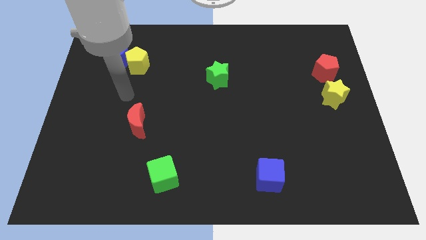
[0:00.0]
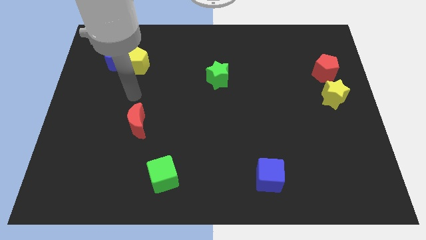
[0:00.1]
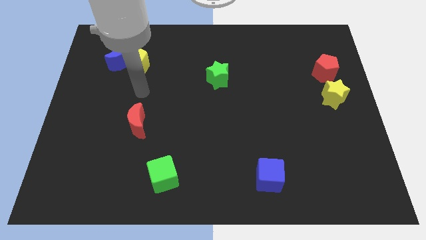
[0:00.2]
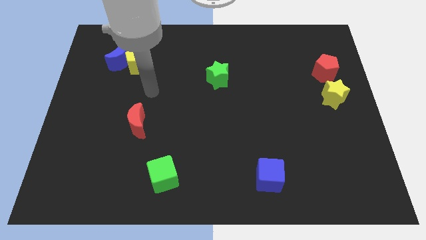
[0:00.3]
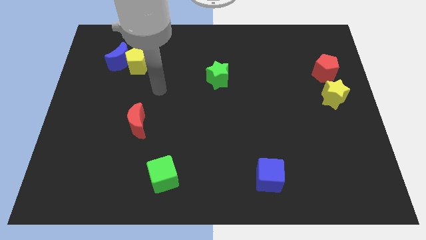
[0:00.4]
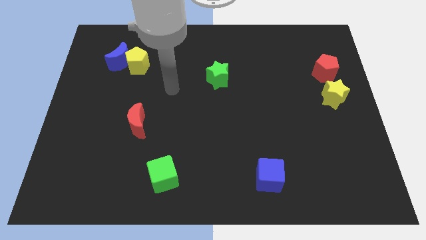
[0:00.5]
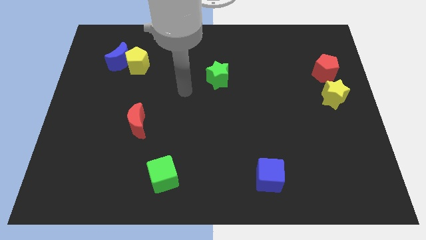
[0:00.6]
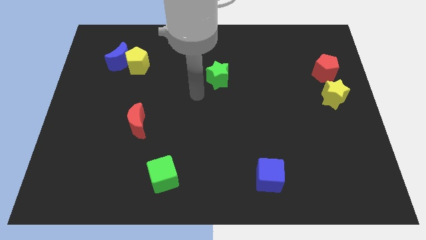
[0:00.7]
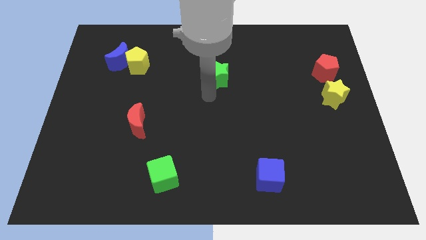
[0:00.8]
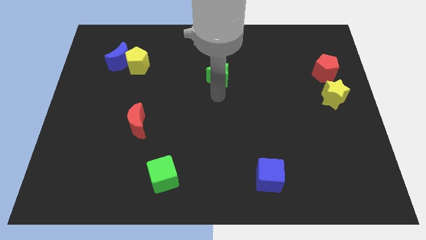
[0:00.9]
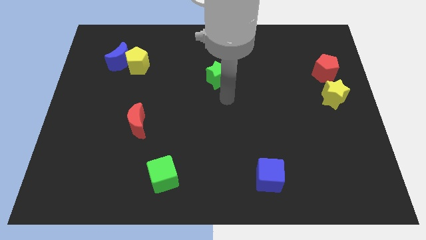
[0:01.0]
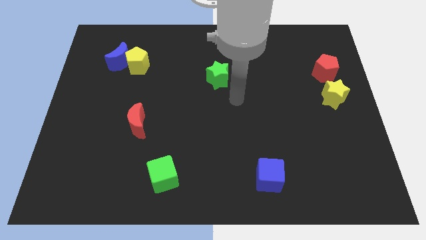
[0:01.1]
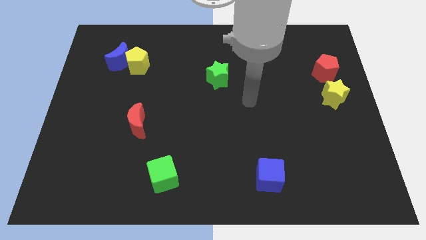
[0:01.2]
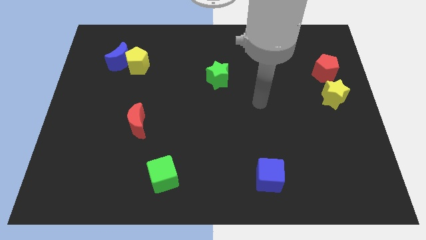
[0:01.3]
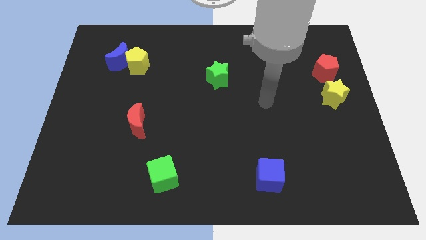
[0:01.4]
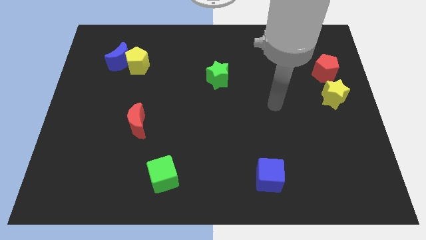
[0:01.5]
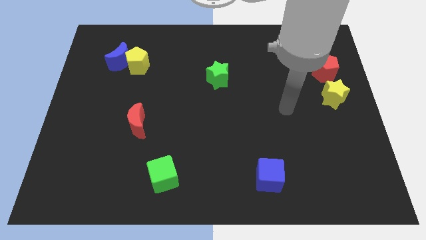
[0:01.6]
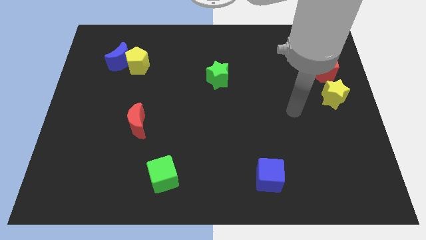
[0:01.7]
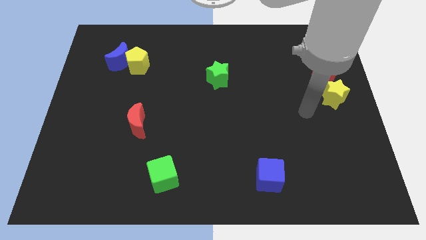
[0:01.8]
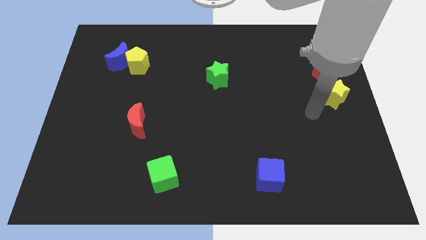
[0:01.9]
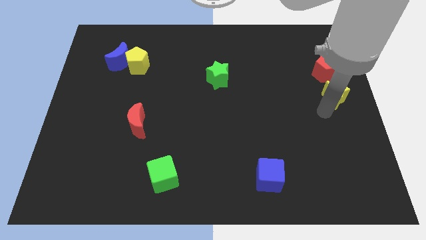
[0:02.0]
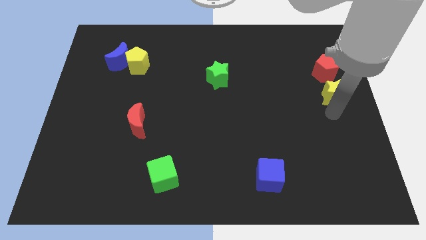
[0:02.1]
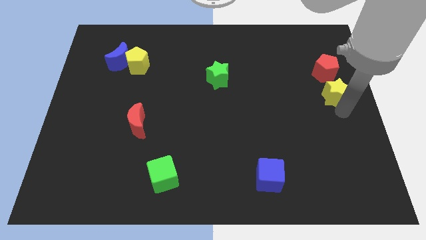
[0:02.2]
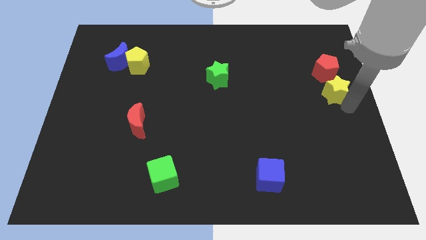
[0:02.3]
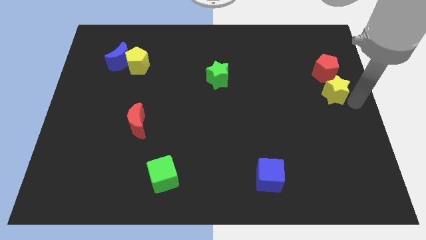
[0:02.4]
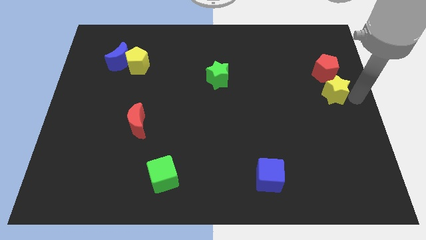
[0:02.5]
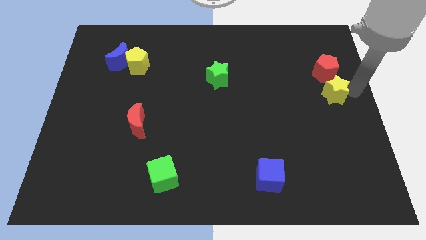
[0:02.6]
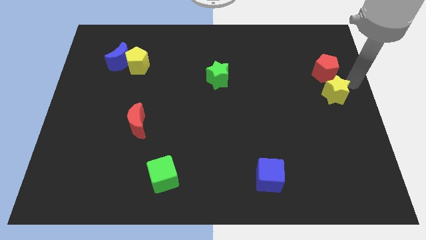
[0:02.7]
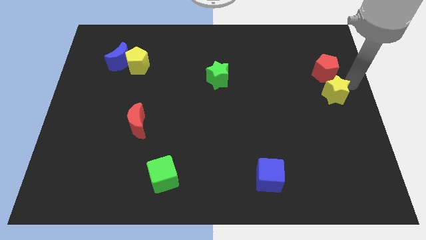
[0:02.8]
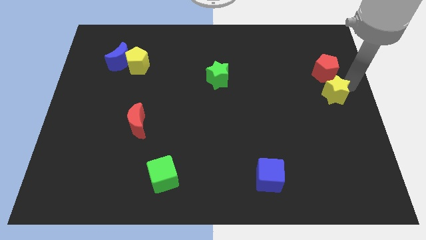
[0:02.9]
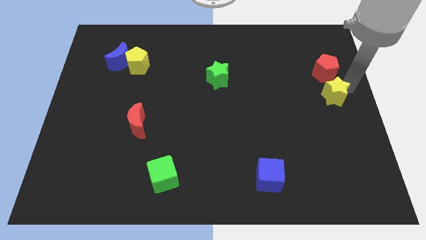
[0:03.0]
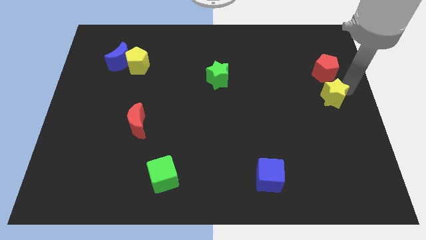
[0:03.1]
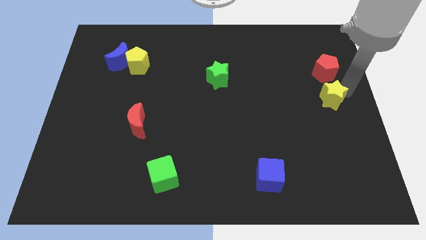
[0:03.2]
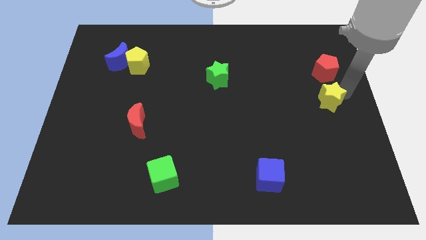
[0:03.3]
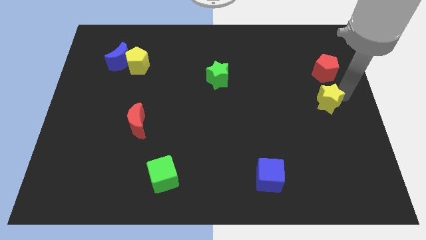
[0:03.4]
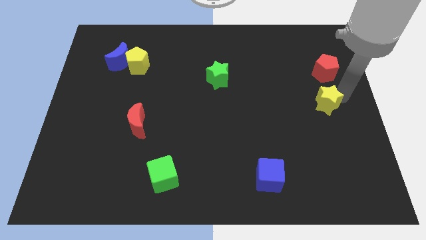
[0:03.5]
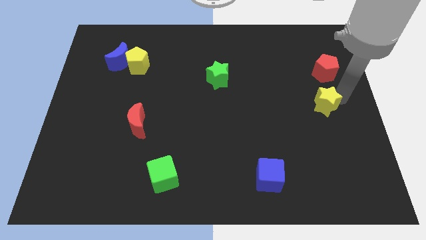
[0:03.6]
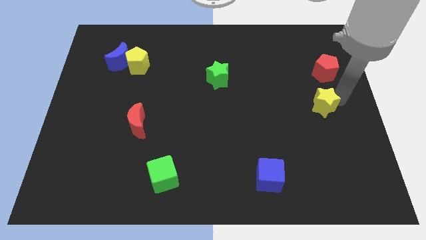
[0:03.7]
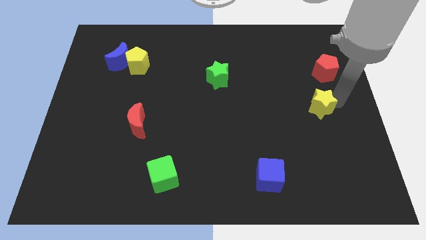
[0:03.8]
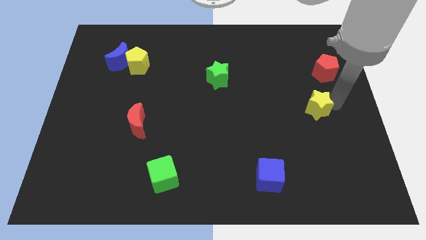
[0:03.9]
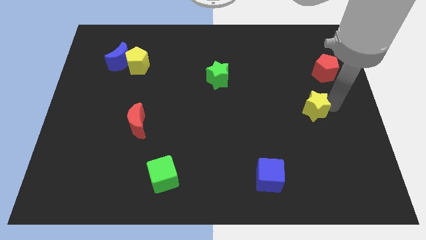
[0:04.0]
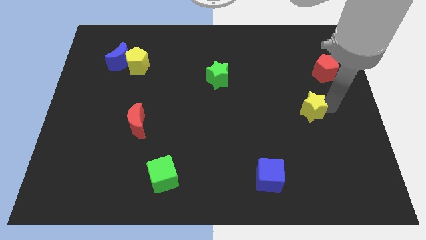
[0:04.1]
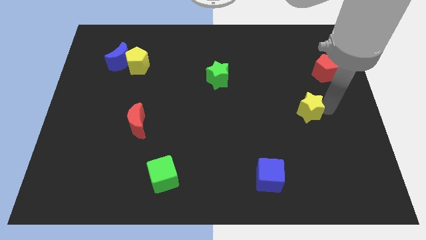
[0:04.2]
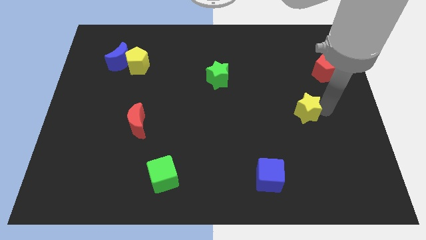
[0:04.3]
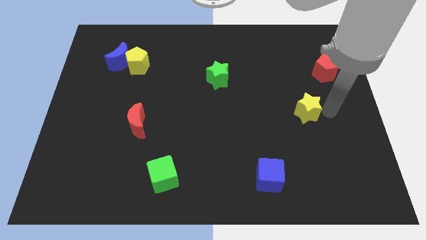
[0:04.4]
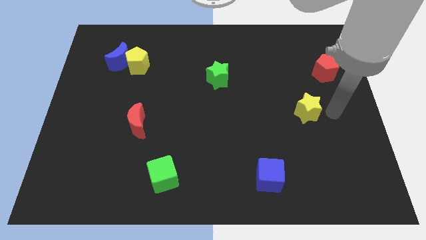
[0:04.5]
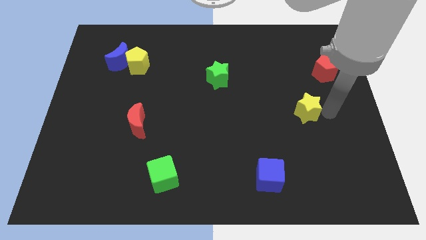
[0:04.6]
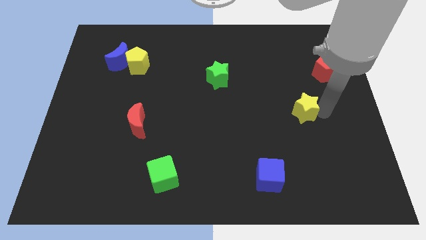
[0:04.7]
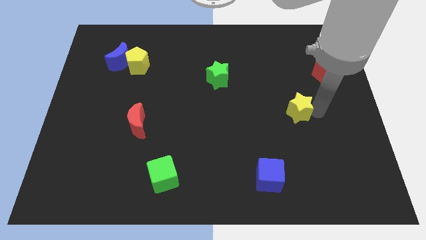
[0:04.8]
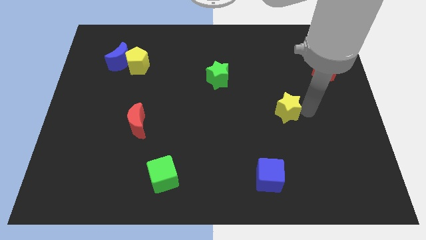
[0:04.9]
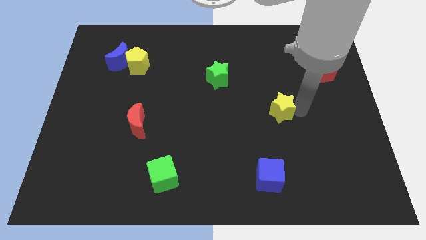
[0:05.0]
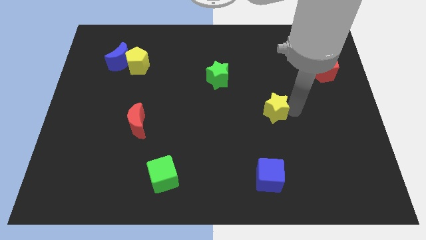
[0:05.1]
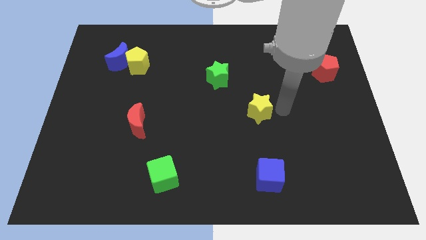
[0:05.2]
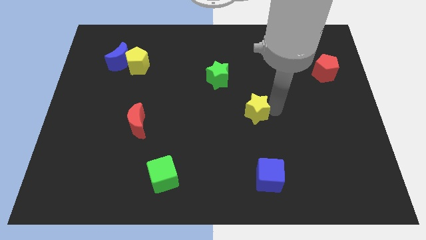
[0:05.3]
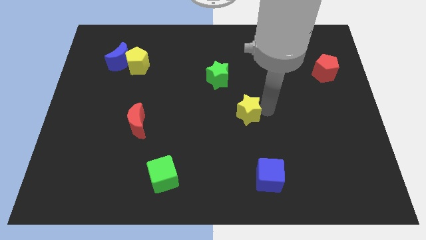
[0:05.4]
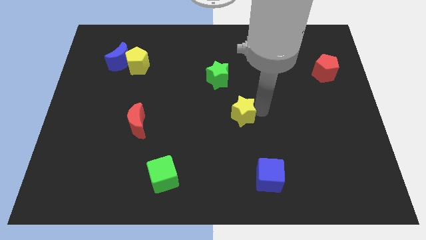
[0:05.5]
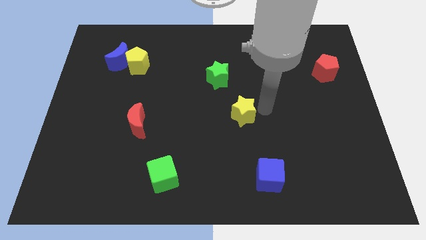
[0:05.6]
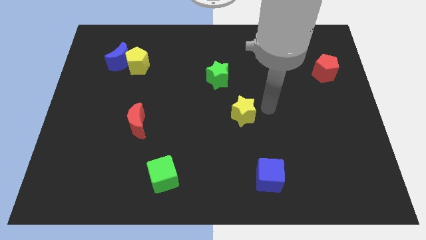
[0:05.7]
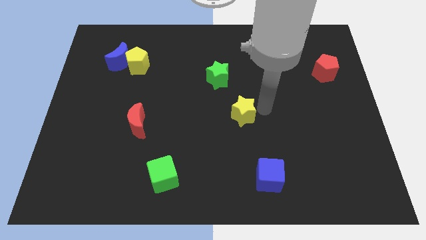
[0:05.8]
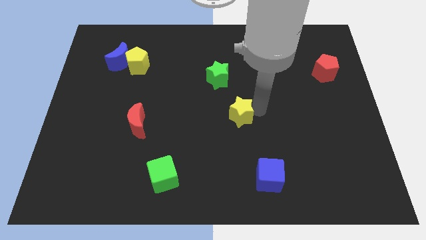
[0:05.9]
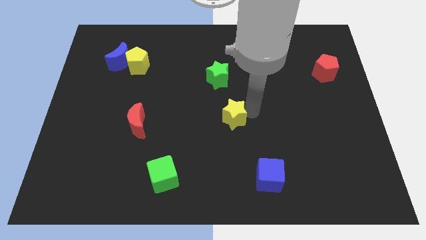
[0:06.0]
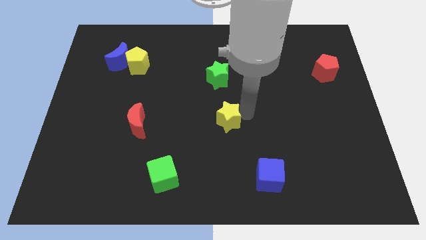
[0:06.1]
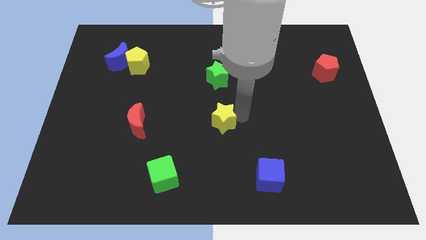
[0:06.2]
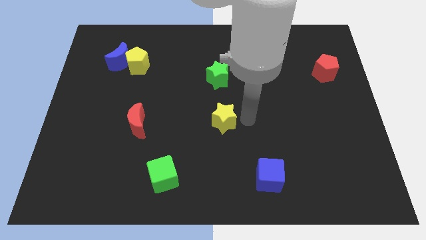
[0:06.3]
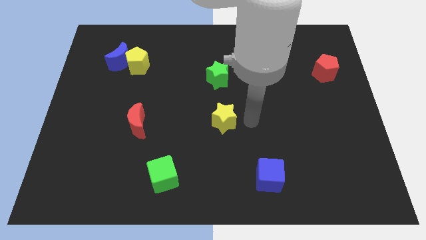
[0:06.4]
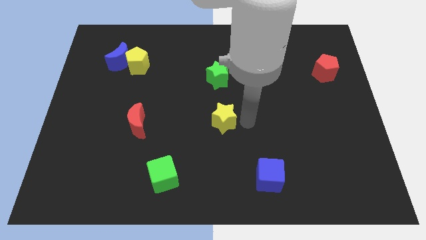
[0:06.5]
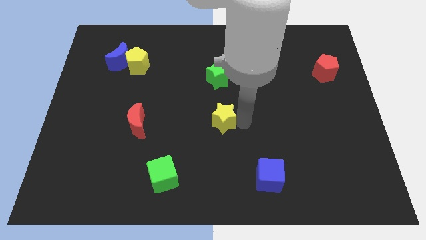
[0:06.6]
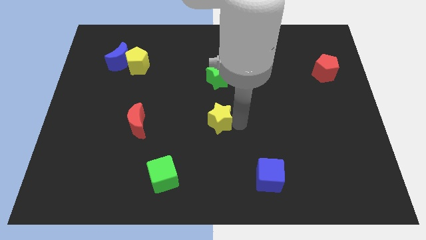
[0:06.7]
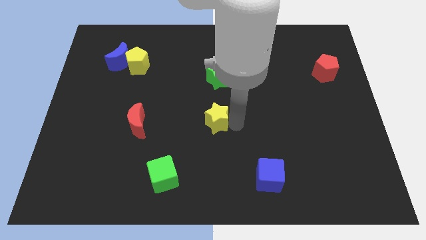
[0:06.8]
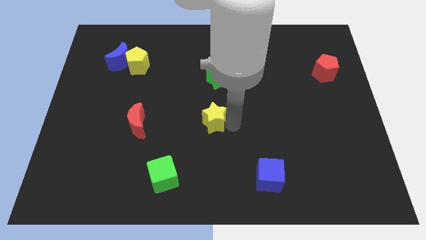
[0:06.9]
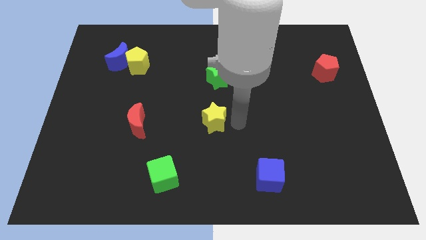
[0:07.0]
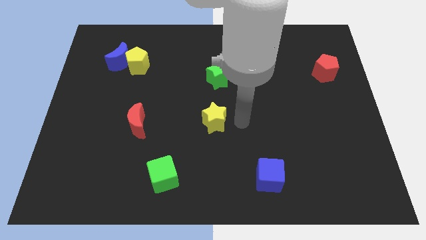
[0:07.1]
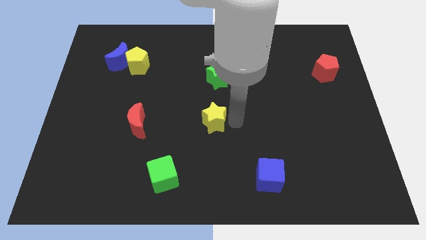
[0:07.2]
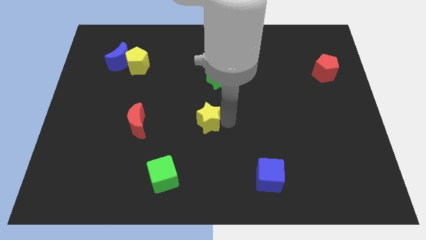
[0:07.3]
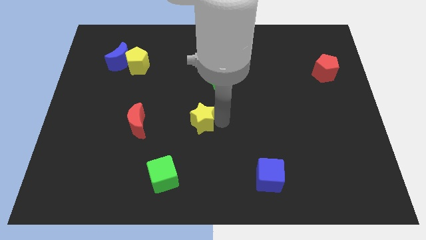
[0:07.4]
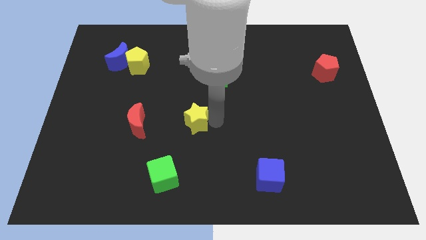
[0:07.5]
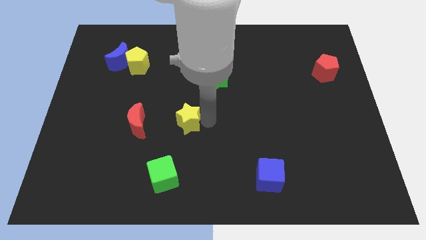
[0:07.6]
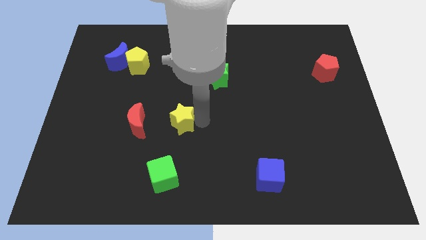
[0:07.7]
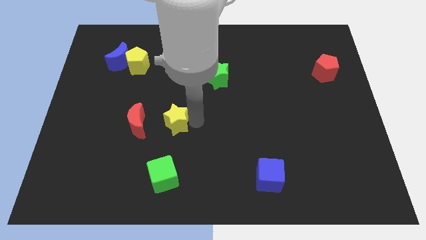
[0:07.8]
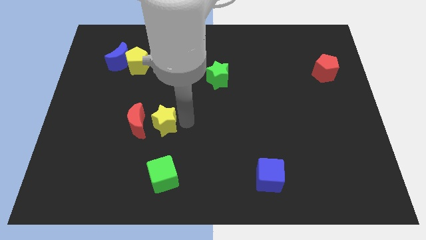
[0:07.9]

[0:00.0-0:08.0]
move the yellow star close to the red moon
